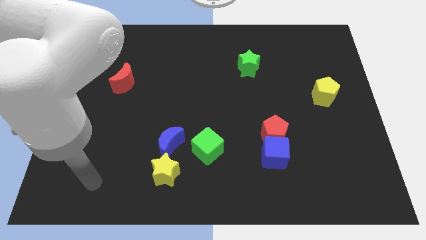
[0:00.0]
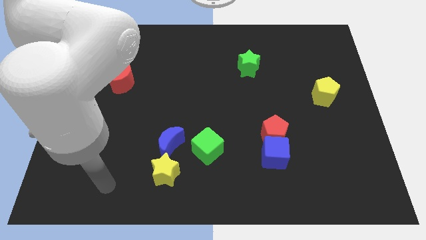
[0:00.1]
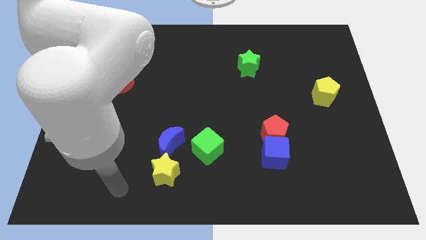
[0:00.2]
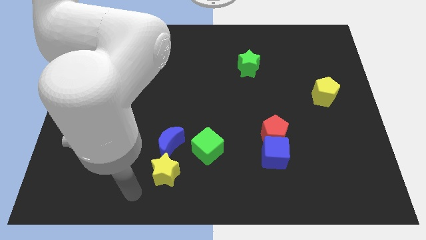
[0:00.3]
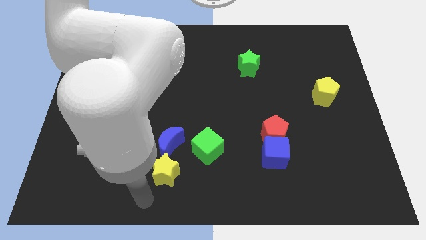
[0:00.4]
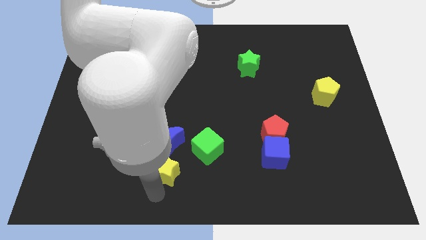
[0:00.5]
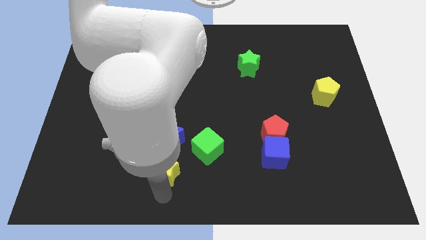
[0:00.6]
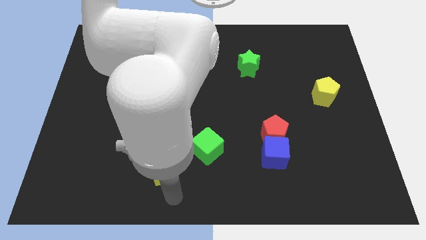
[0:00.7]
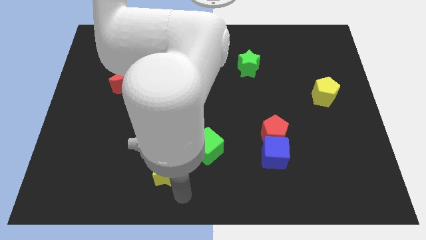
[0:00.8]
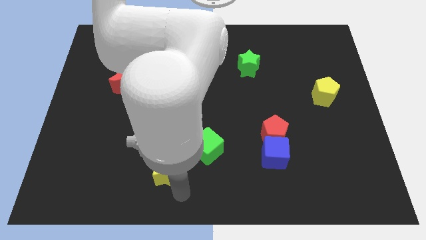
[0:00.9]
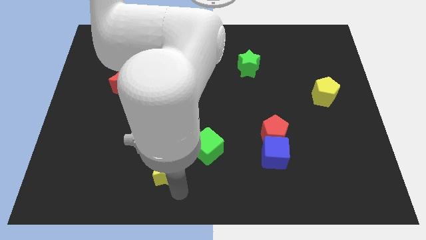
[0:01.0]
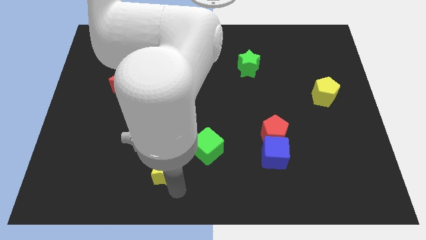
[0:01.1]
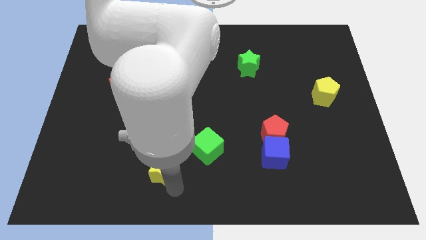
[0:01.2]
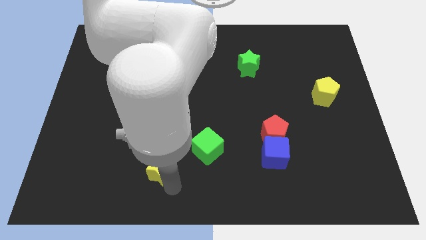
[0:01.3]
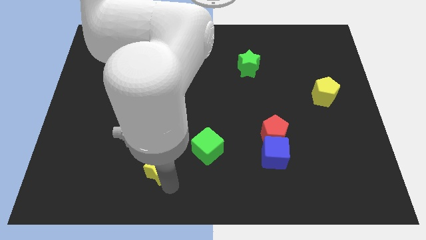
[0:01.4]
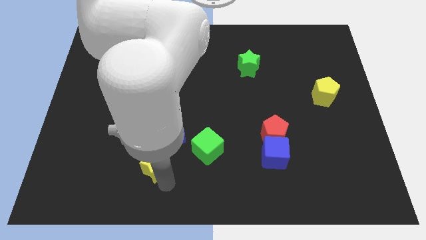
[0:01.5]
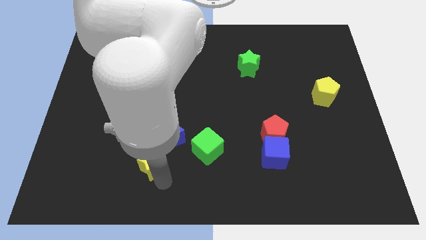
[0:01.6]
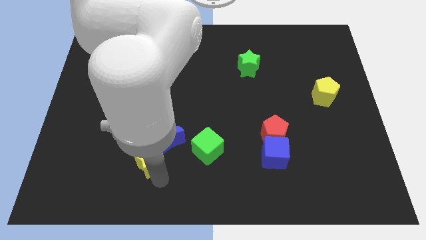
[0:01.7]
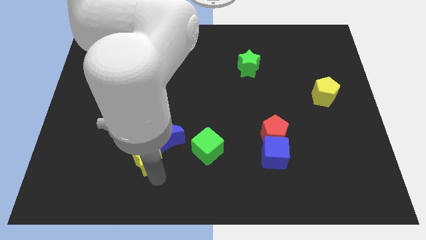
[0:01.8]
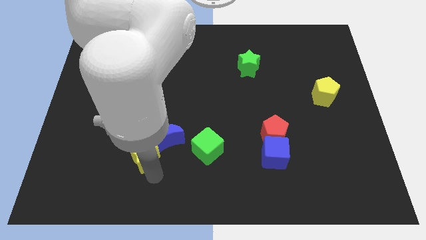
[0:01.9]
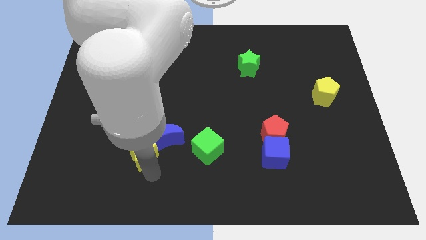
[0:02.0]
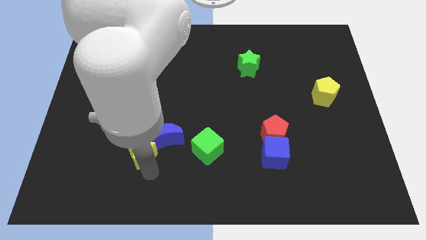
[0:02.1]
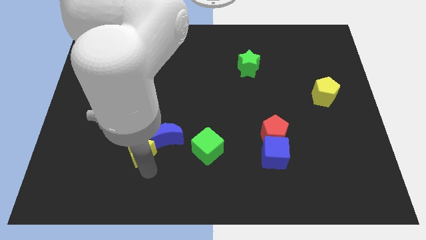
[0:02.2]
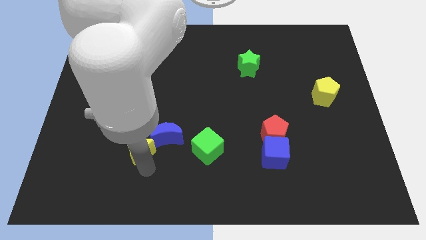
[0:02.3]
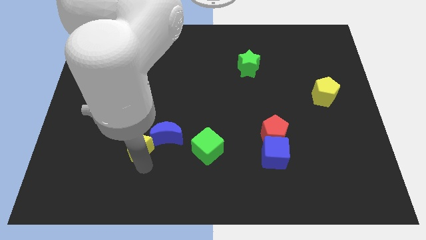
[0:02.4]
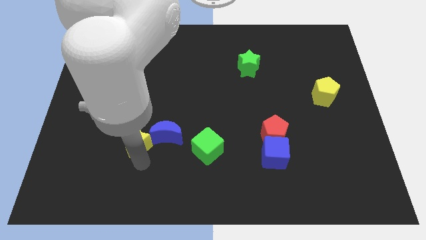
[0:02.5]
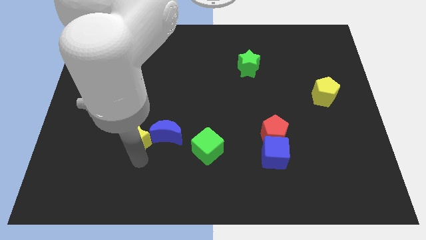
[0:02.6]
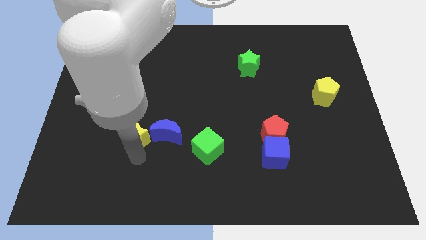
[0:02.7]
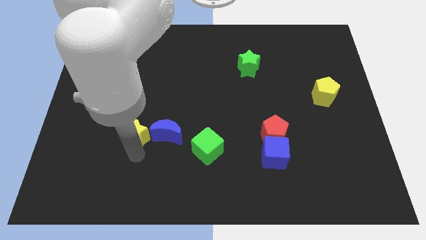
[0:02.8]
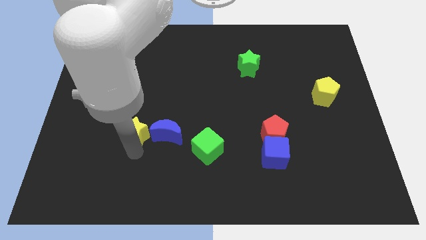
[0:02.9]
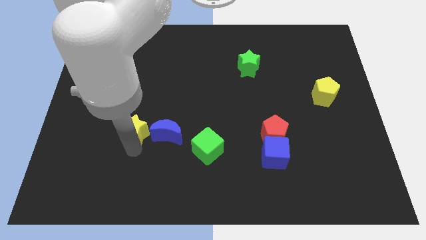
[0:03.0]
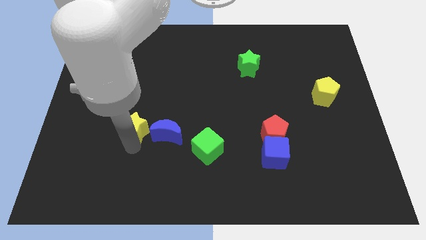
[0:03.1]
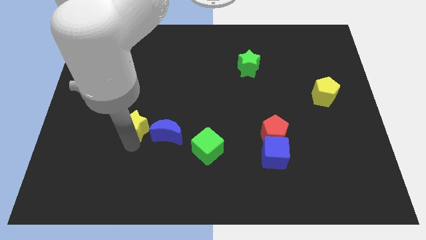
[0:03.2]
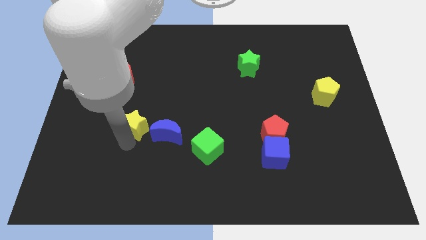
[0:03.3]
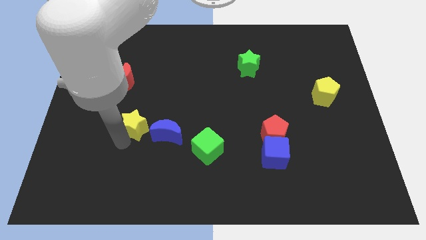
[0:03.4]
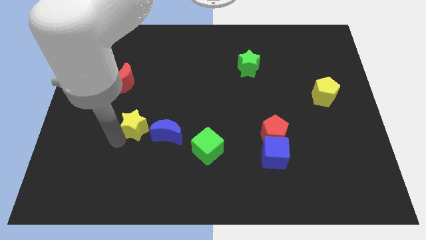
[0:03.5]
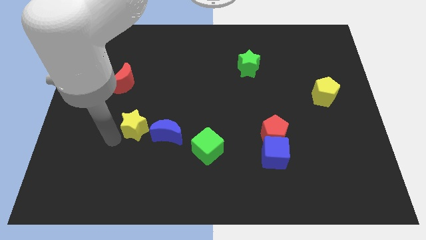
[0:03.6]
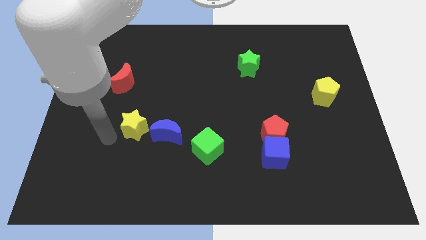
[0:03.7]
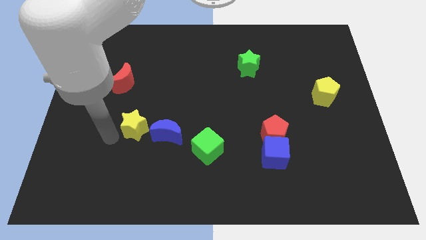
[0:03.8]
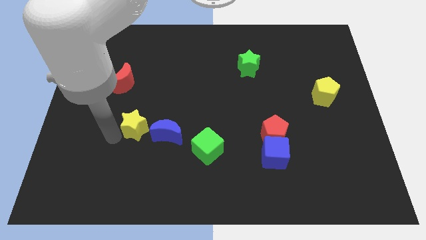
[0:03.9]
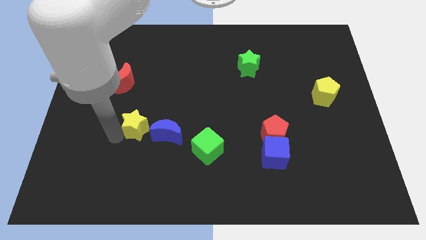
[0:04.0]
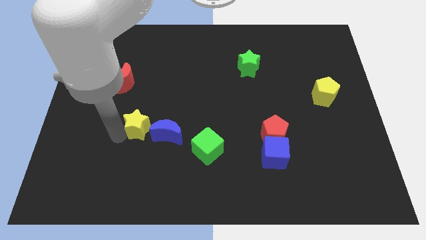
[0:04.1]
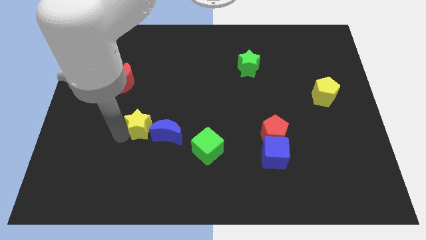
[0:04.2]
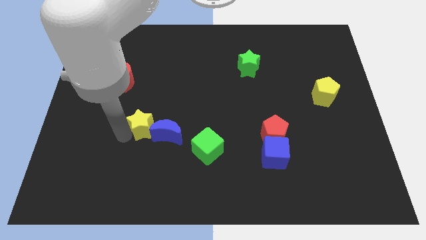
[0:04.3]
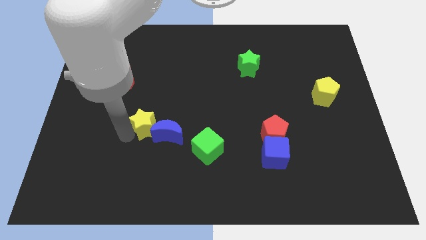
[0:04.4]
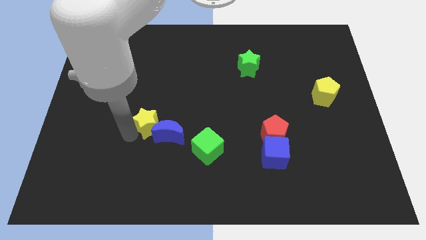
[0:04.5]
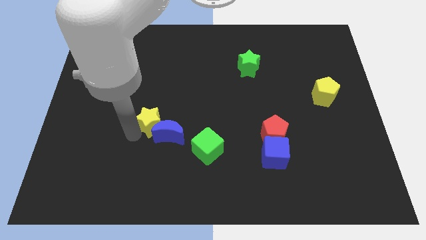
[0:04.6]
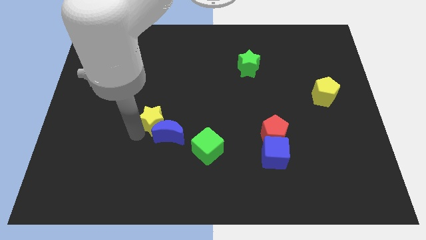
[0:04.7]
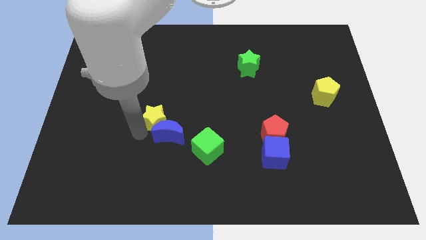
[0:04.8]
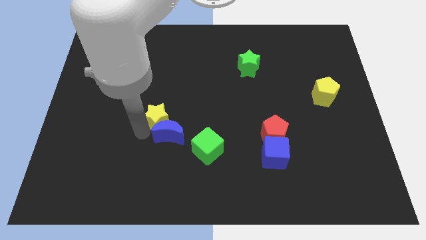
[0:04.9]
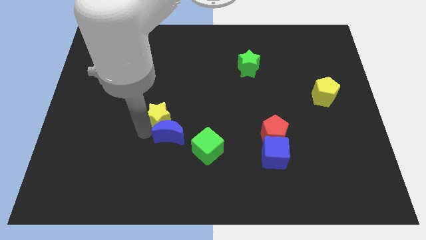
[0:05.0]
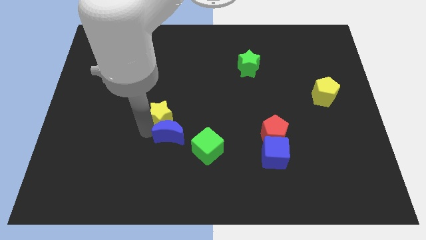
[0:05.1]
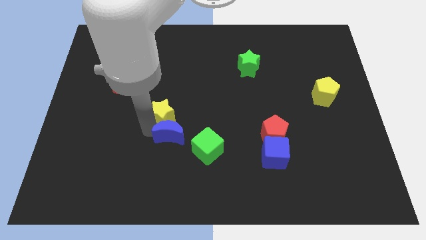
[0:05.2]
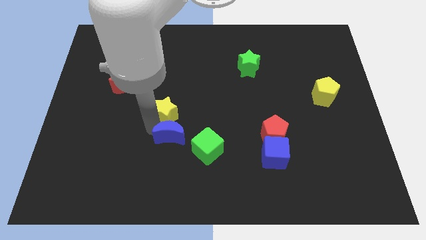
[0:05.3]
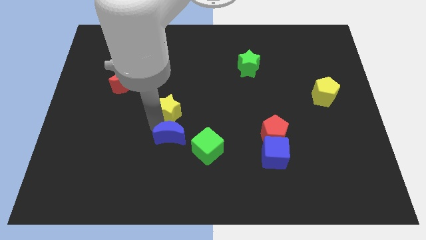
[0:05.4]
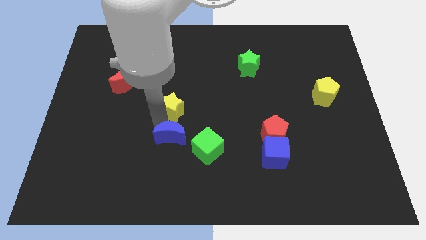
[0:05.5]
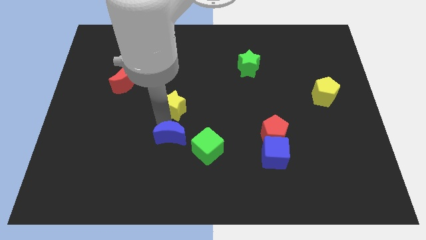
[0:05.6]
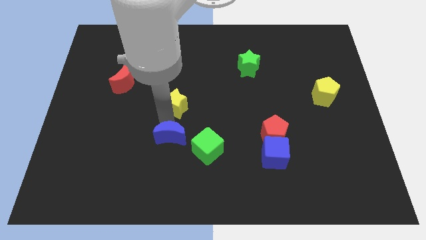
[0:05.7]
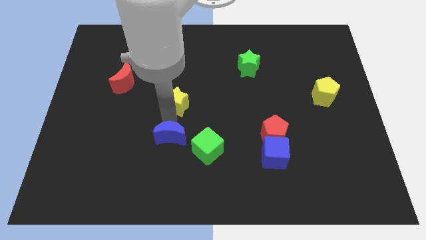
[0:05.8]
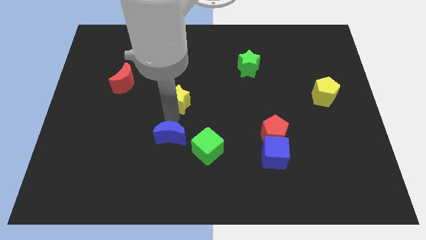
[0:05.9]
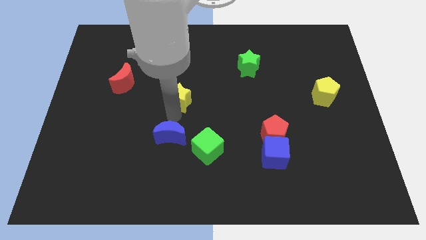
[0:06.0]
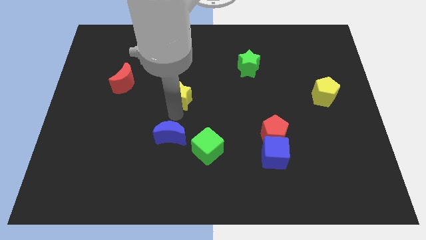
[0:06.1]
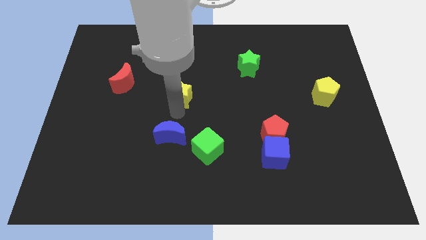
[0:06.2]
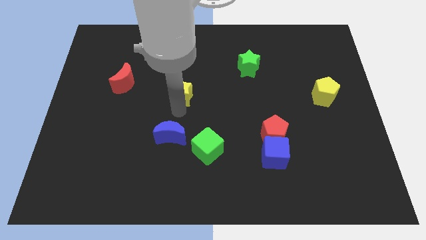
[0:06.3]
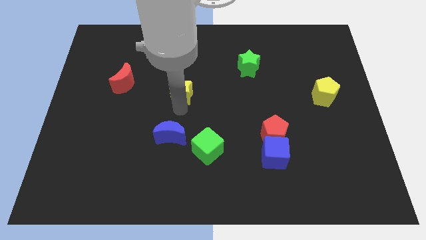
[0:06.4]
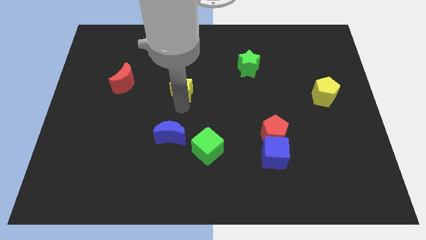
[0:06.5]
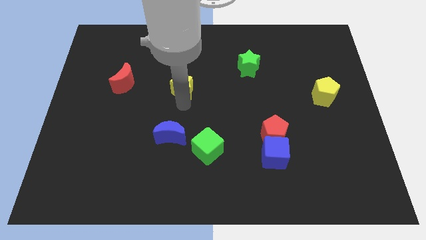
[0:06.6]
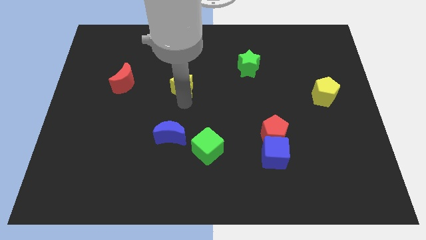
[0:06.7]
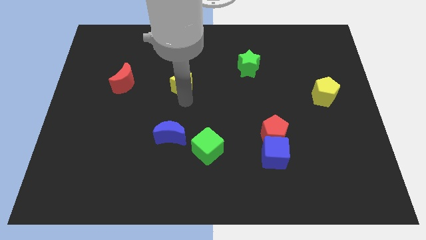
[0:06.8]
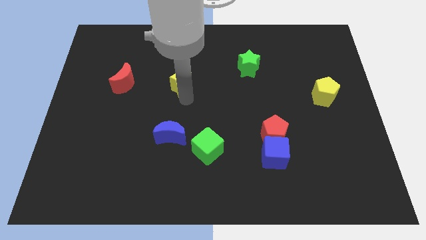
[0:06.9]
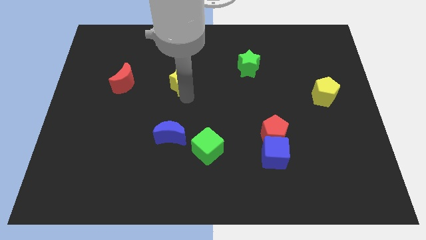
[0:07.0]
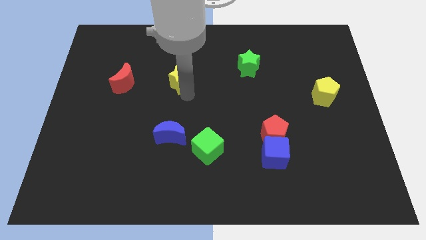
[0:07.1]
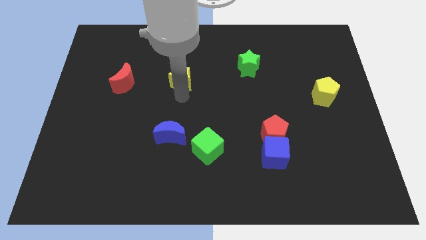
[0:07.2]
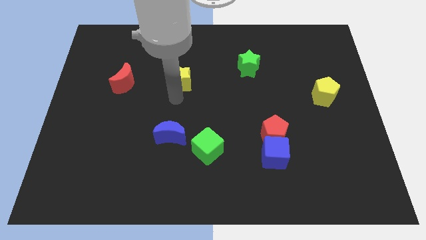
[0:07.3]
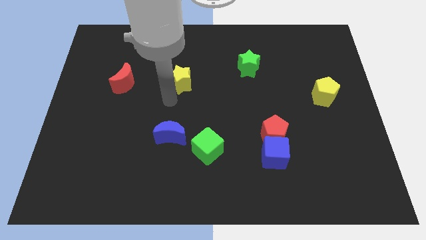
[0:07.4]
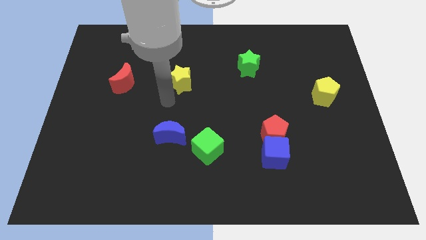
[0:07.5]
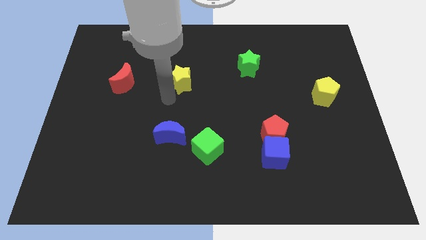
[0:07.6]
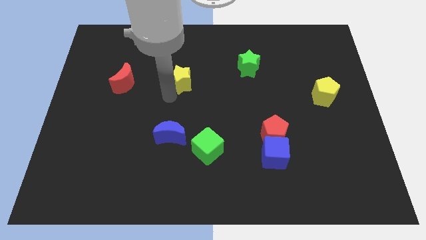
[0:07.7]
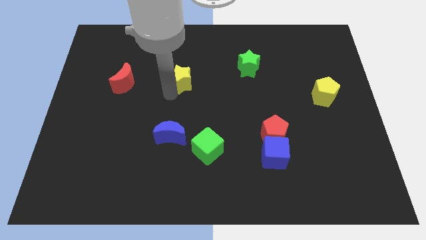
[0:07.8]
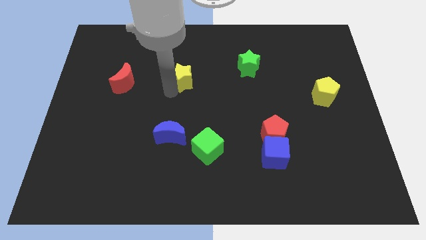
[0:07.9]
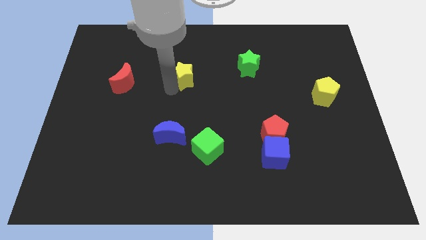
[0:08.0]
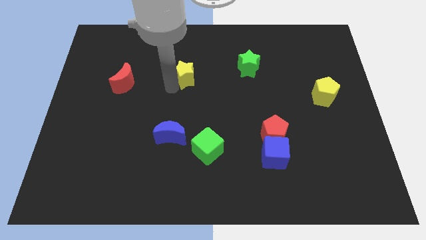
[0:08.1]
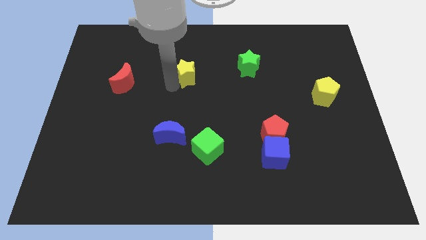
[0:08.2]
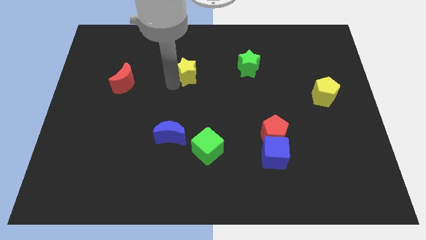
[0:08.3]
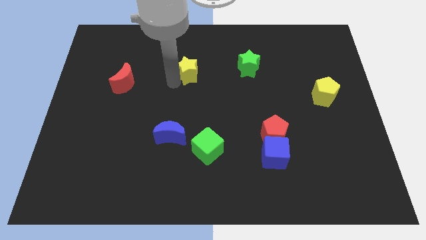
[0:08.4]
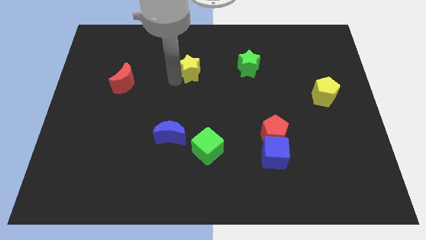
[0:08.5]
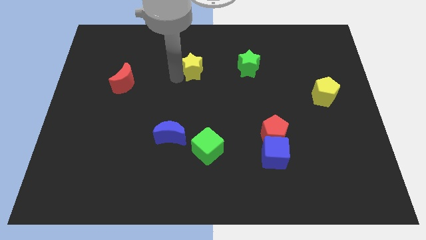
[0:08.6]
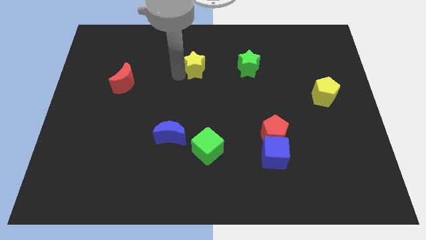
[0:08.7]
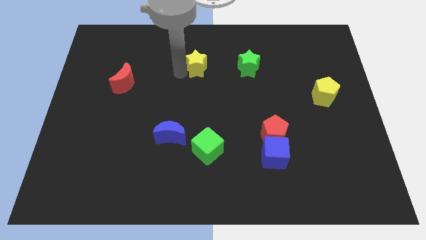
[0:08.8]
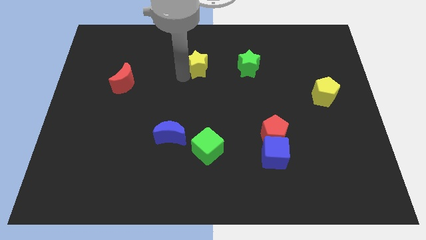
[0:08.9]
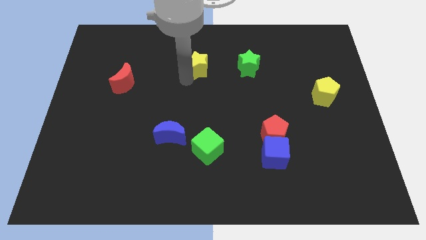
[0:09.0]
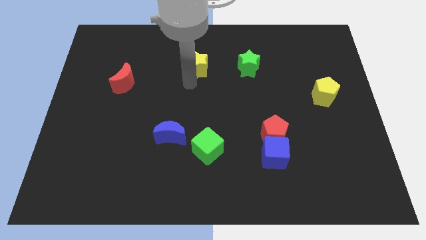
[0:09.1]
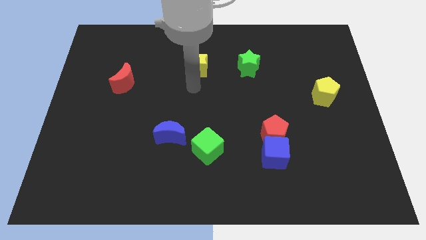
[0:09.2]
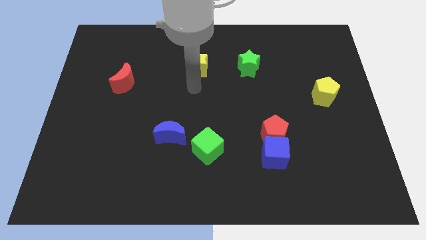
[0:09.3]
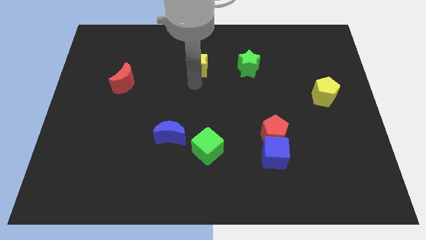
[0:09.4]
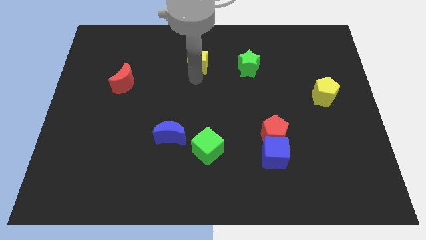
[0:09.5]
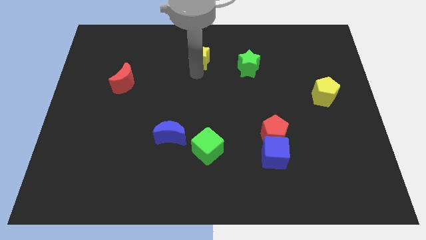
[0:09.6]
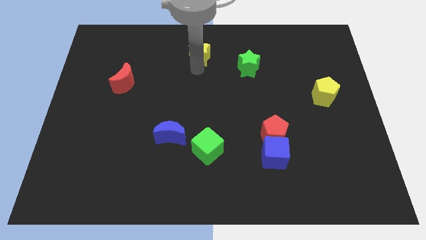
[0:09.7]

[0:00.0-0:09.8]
put the yellow star to the top
